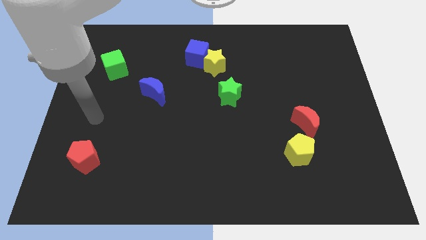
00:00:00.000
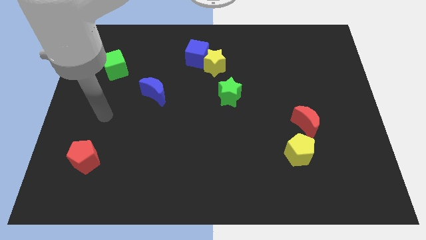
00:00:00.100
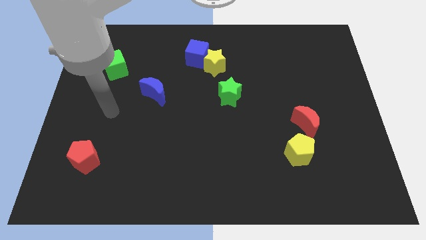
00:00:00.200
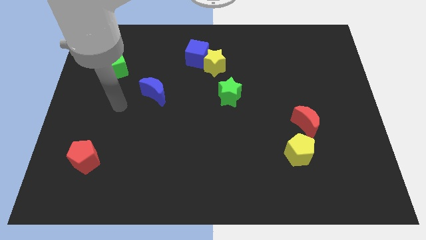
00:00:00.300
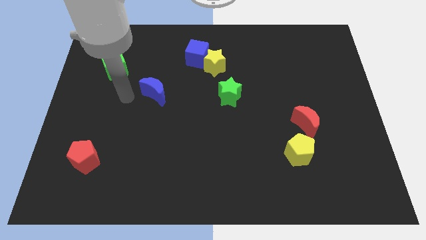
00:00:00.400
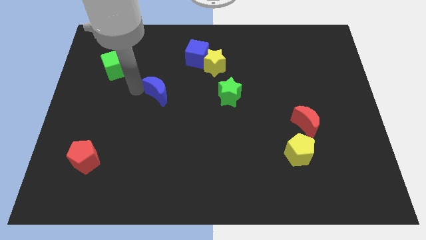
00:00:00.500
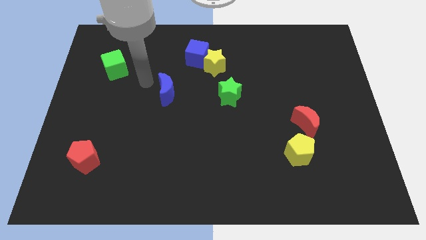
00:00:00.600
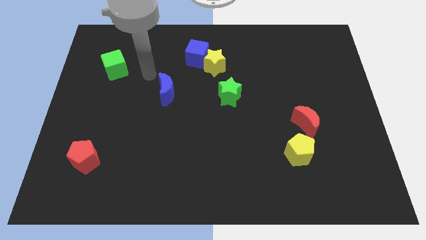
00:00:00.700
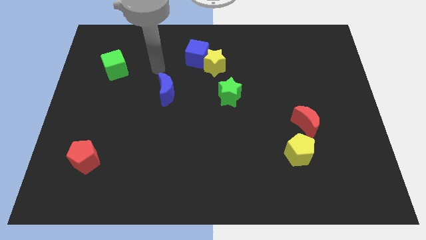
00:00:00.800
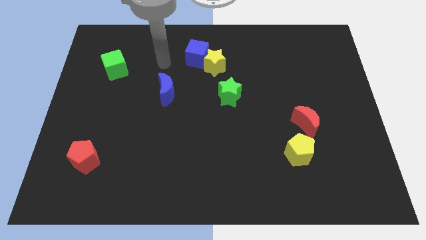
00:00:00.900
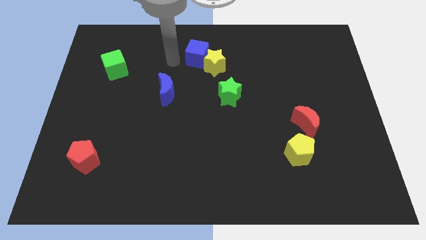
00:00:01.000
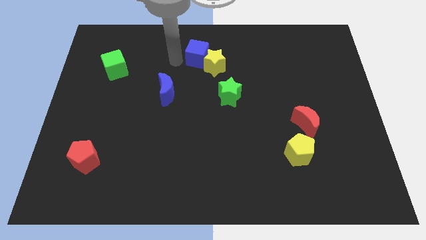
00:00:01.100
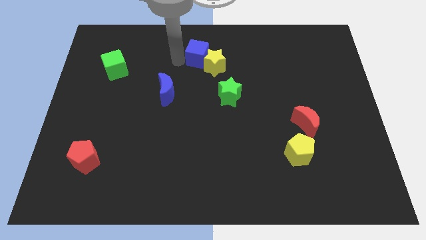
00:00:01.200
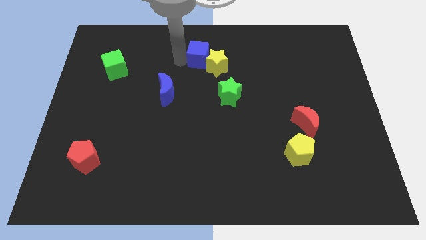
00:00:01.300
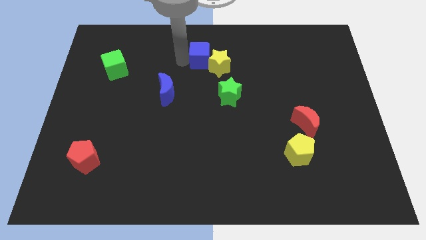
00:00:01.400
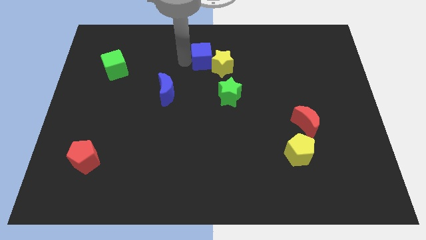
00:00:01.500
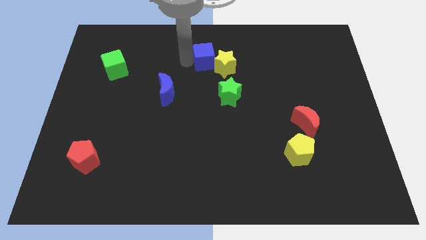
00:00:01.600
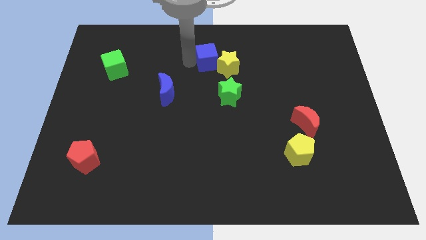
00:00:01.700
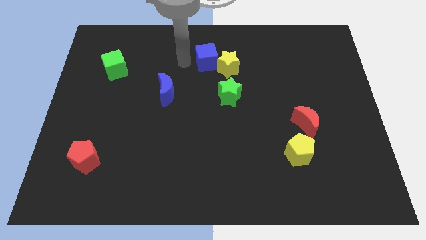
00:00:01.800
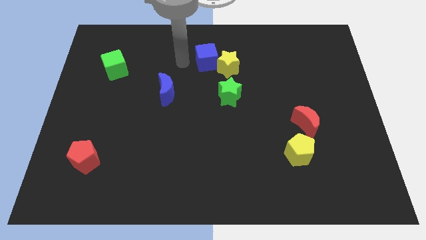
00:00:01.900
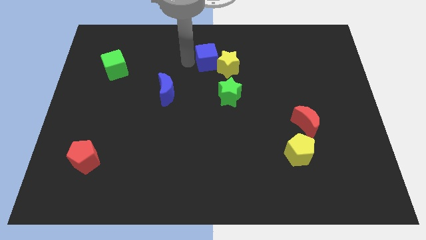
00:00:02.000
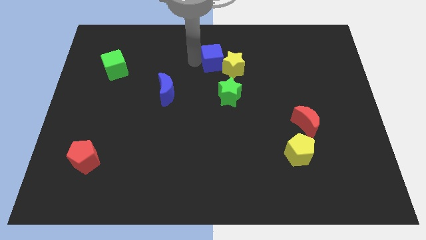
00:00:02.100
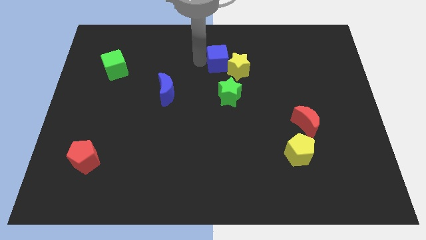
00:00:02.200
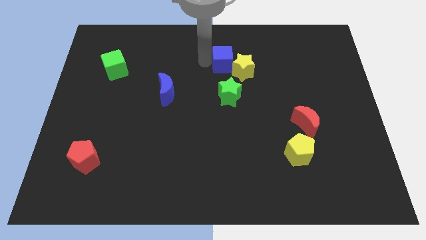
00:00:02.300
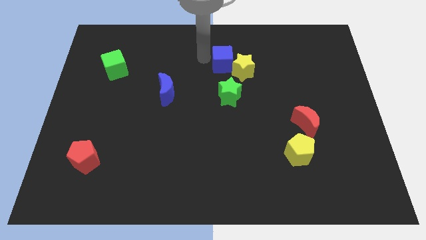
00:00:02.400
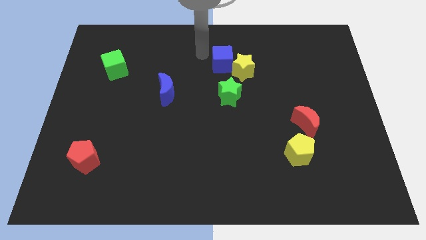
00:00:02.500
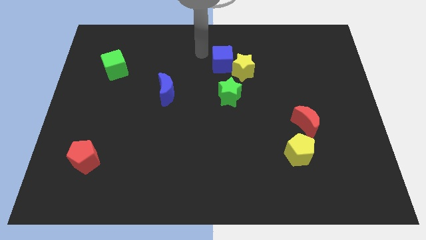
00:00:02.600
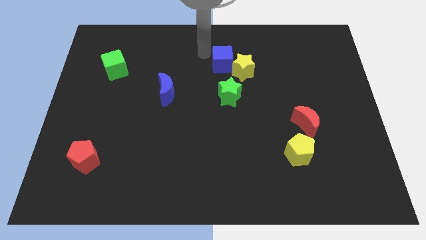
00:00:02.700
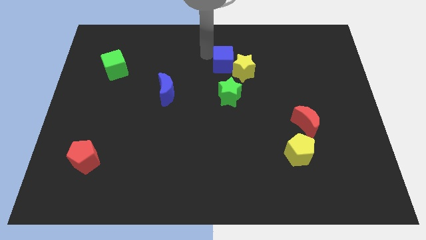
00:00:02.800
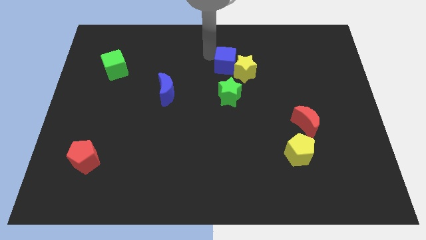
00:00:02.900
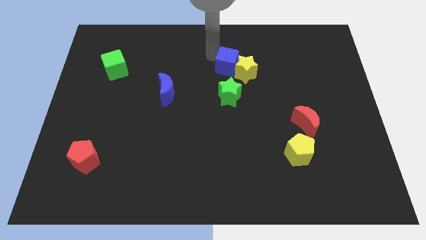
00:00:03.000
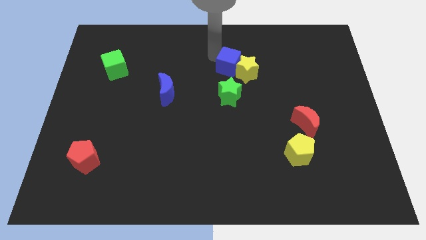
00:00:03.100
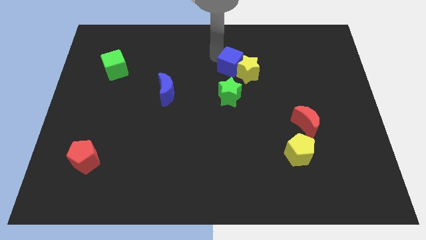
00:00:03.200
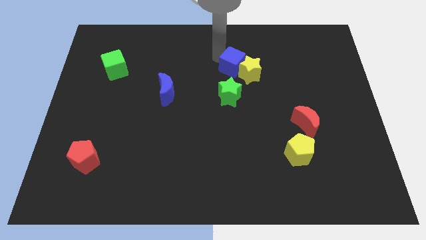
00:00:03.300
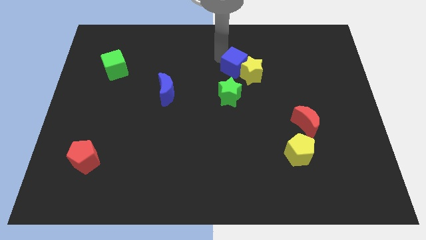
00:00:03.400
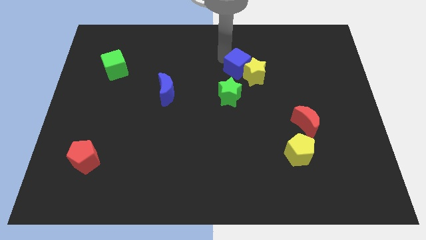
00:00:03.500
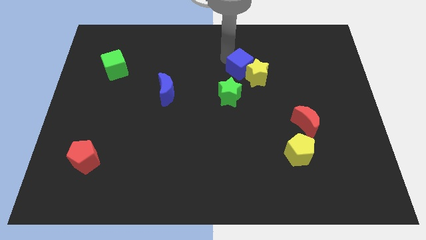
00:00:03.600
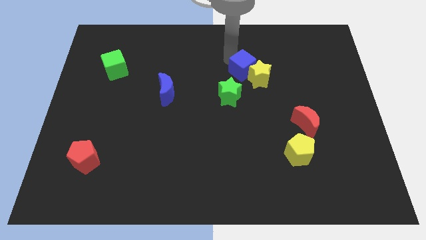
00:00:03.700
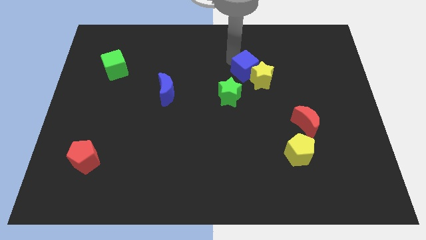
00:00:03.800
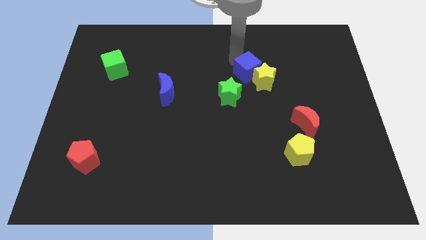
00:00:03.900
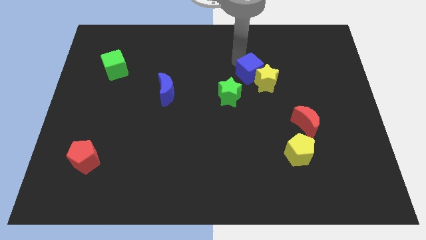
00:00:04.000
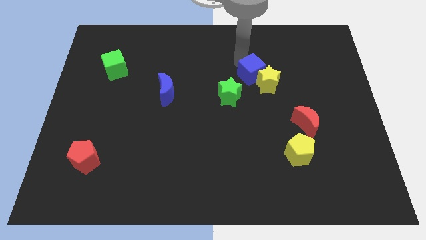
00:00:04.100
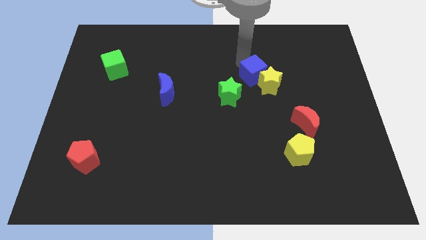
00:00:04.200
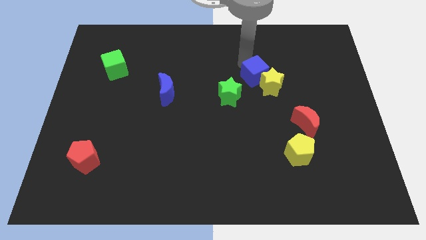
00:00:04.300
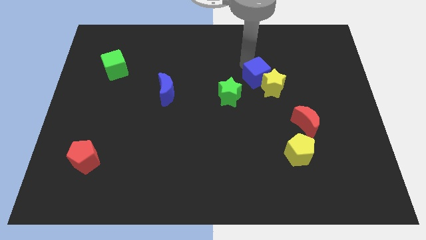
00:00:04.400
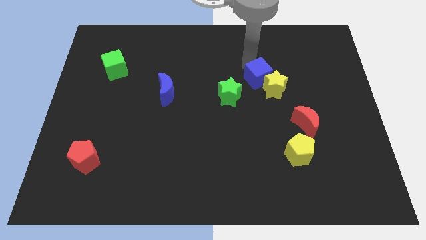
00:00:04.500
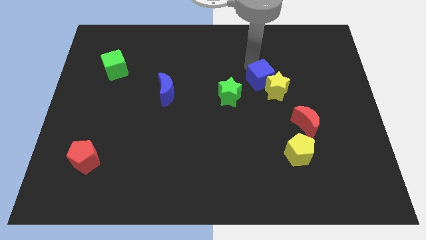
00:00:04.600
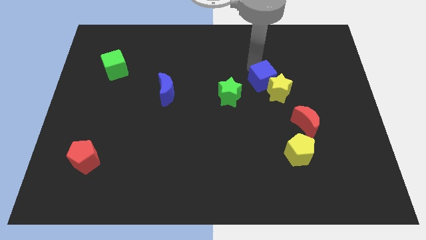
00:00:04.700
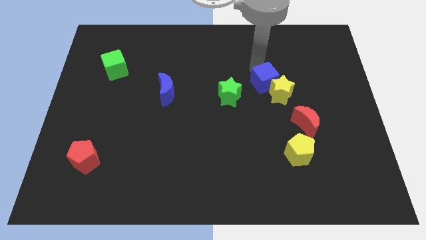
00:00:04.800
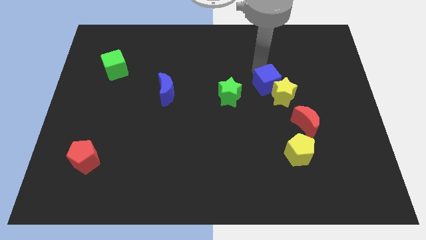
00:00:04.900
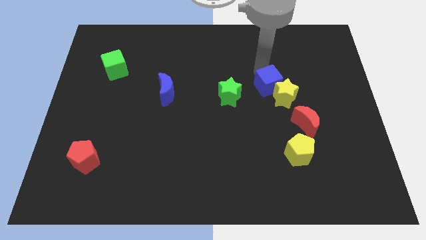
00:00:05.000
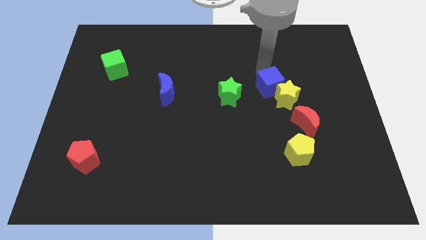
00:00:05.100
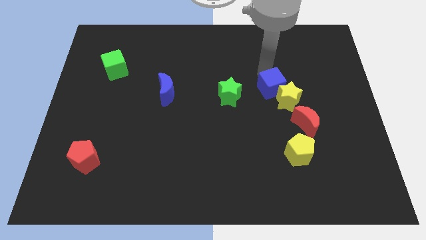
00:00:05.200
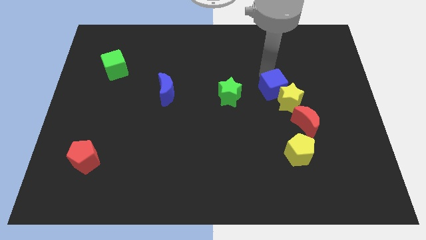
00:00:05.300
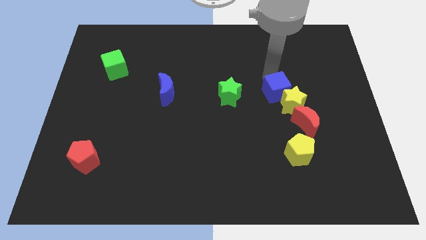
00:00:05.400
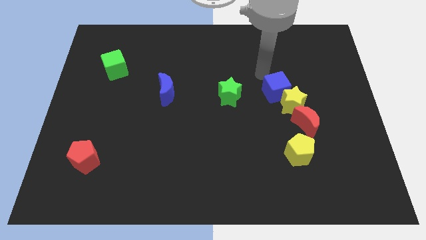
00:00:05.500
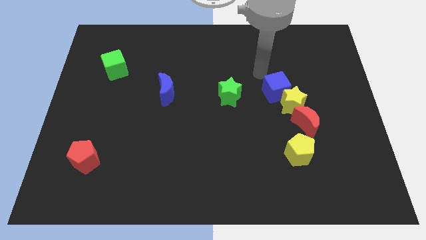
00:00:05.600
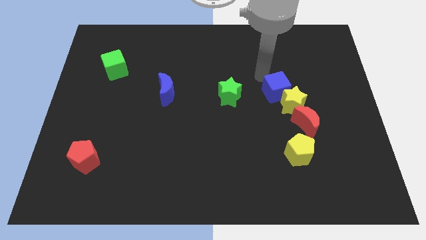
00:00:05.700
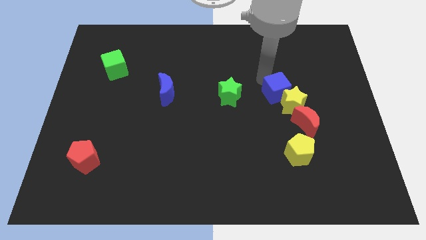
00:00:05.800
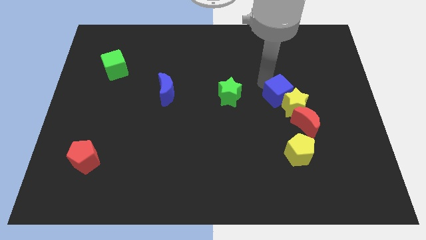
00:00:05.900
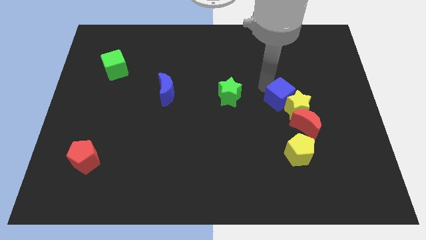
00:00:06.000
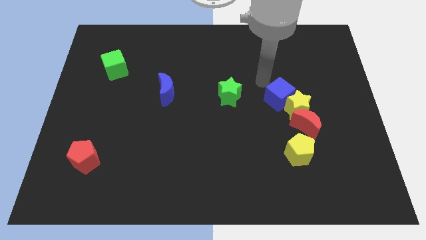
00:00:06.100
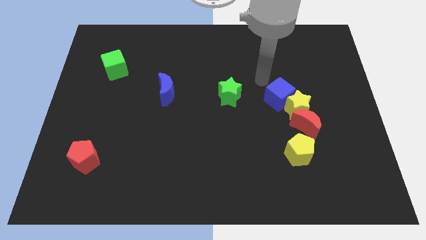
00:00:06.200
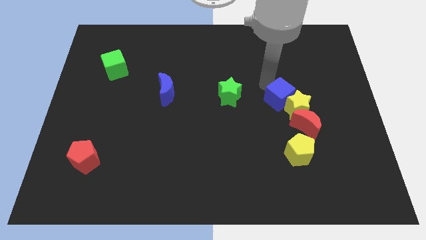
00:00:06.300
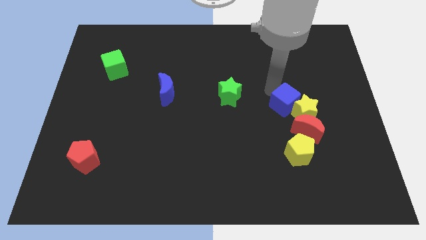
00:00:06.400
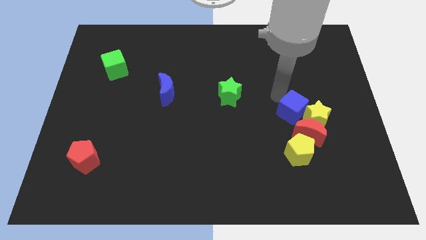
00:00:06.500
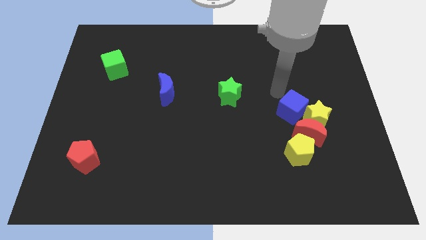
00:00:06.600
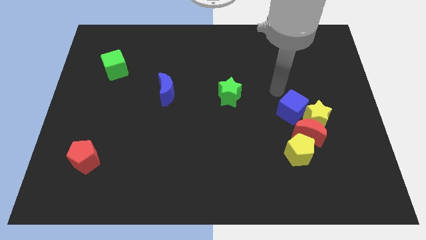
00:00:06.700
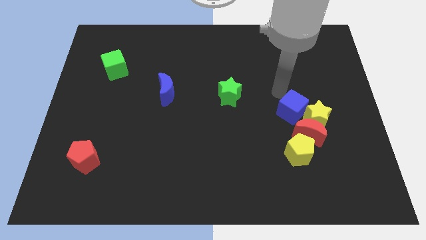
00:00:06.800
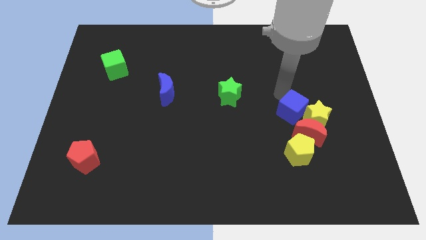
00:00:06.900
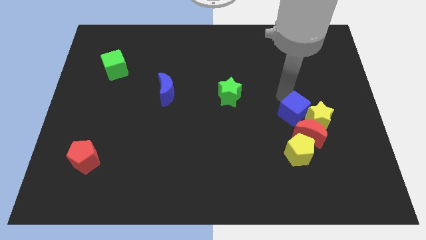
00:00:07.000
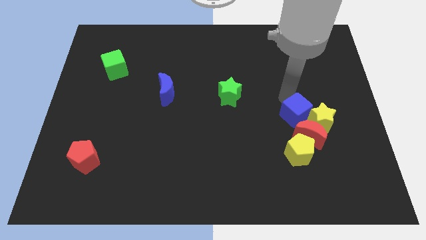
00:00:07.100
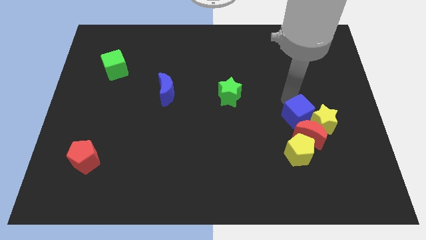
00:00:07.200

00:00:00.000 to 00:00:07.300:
slide the blue cube close to the red moon
